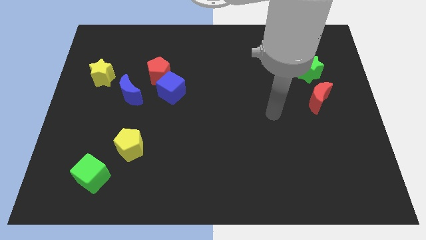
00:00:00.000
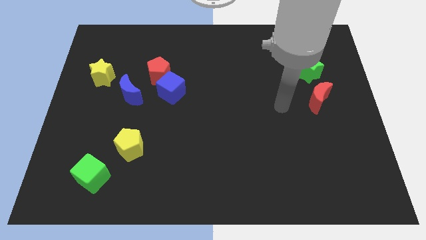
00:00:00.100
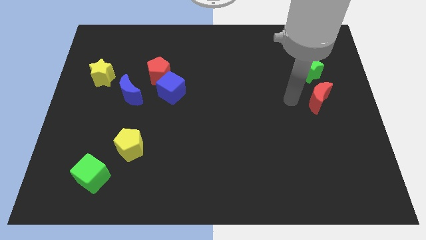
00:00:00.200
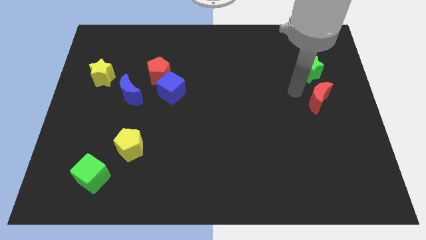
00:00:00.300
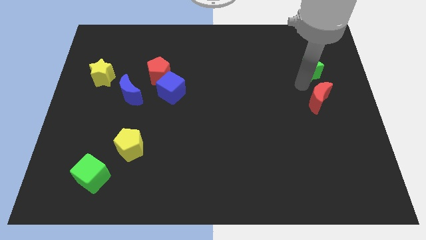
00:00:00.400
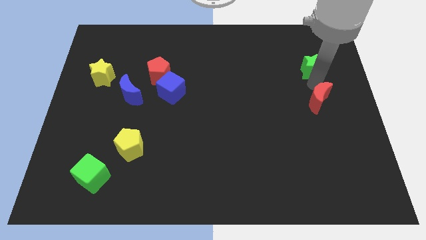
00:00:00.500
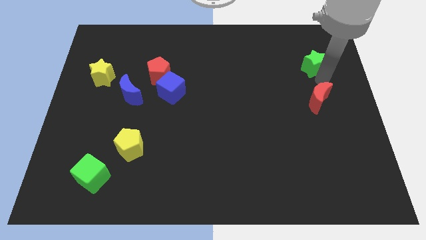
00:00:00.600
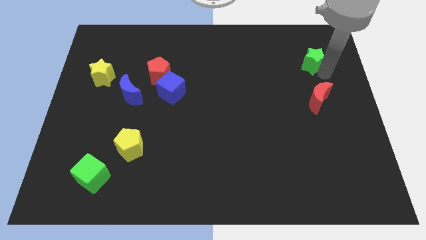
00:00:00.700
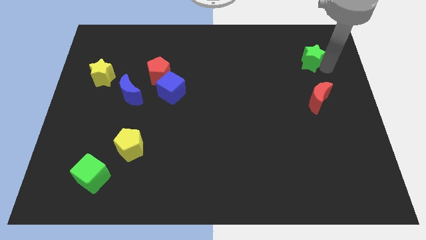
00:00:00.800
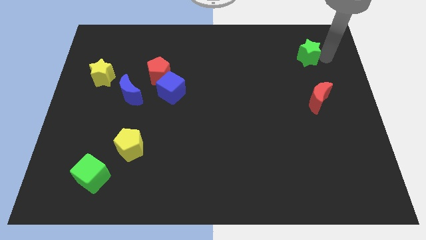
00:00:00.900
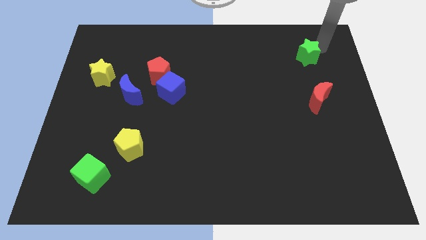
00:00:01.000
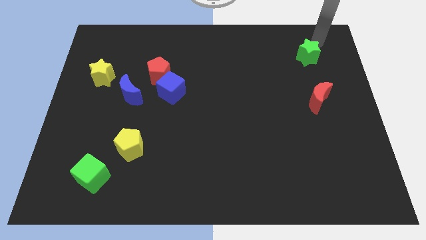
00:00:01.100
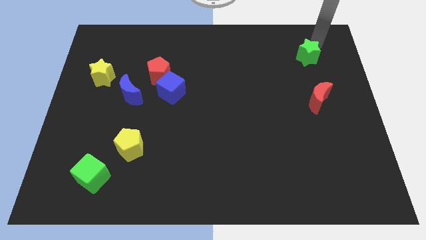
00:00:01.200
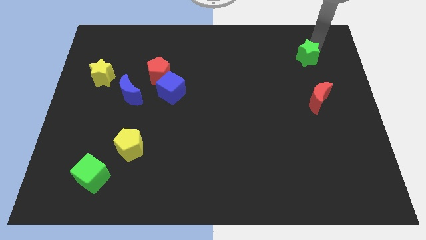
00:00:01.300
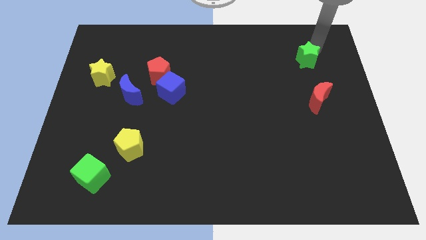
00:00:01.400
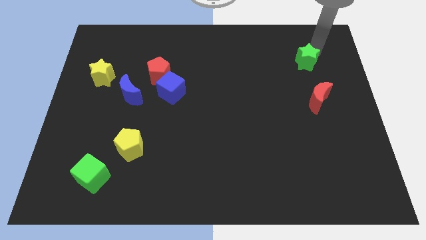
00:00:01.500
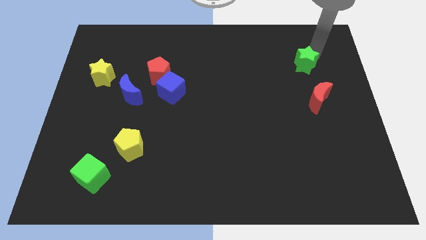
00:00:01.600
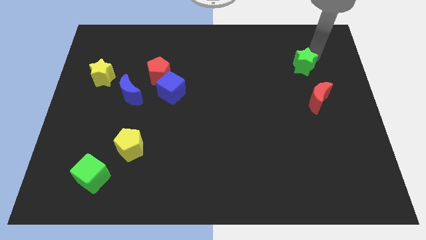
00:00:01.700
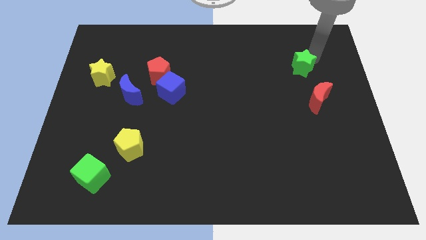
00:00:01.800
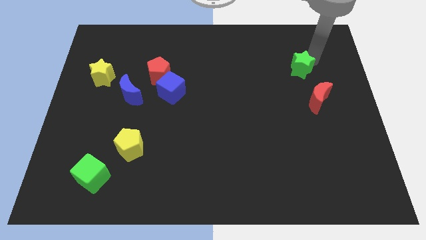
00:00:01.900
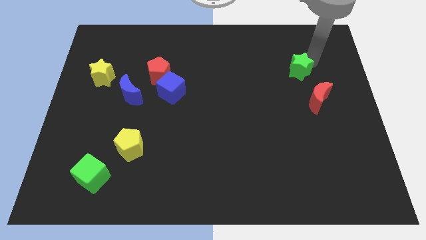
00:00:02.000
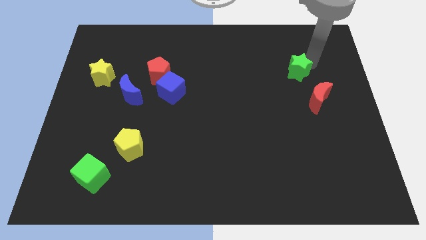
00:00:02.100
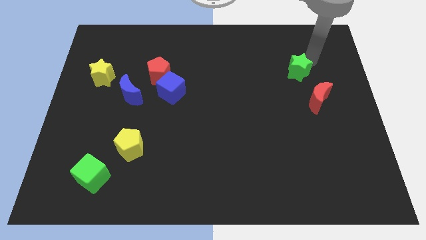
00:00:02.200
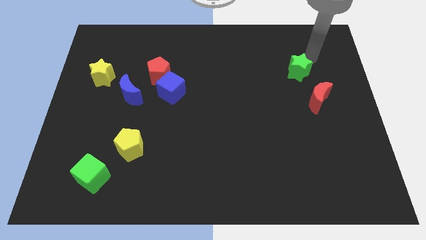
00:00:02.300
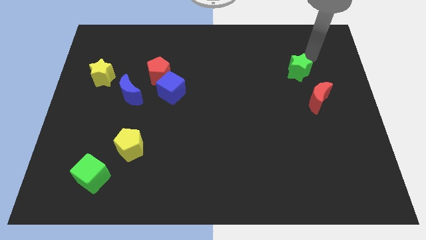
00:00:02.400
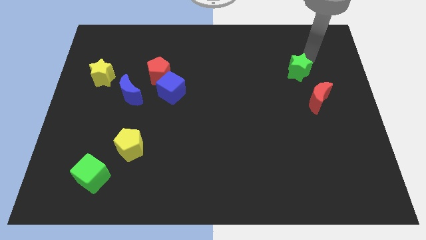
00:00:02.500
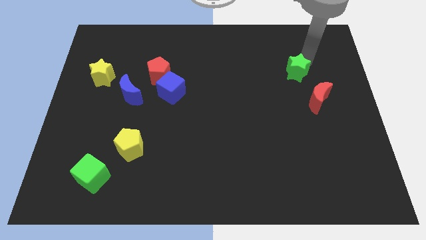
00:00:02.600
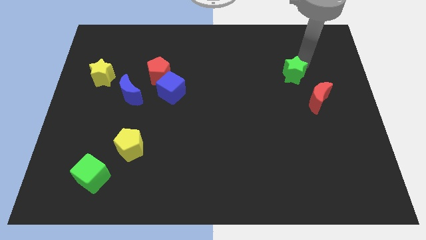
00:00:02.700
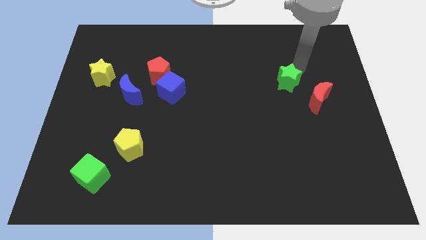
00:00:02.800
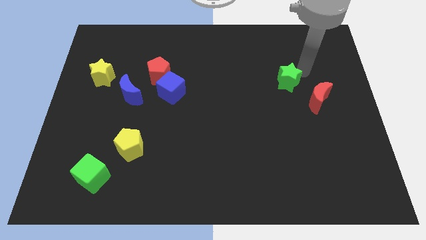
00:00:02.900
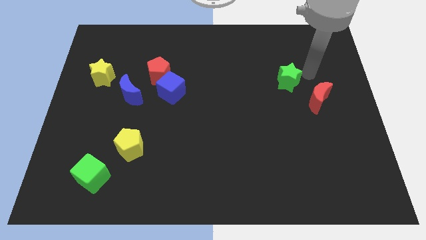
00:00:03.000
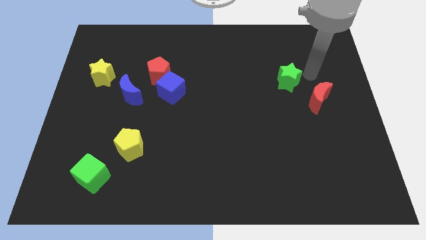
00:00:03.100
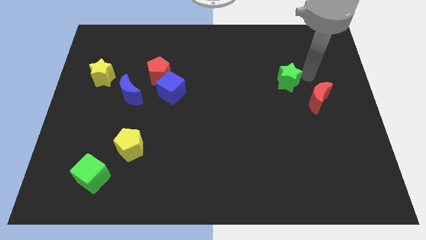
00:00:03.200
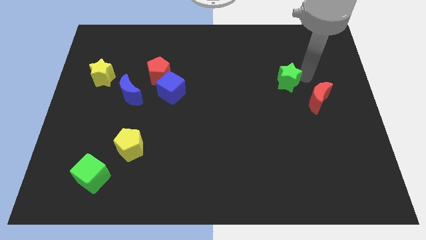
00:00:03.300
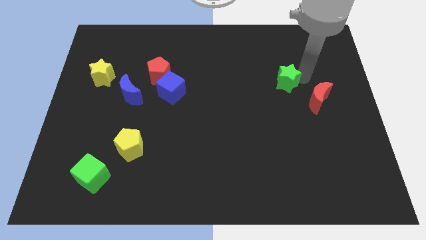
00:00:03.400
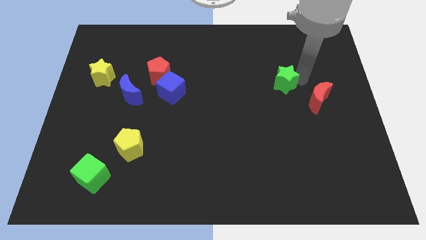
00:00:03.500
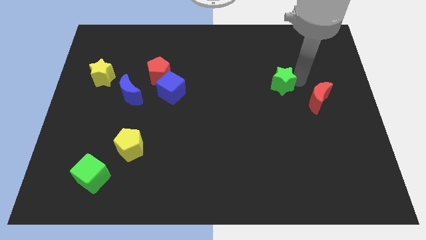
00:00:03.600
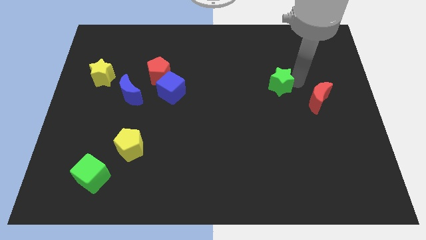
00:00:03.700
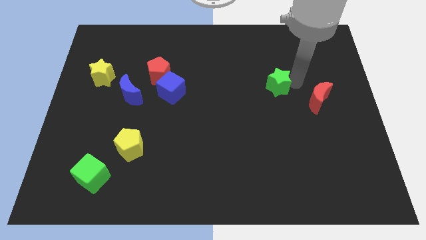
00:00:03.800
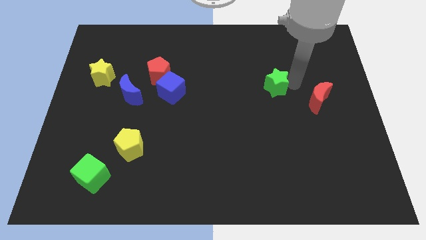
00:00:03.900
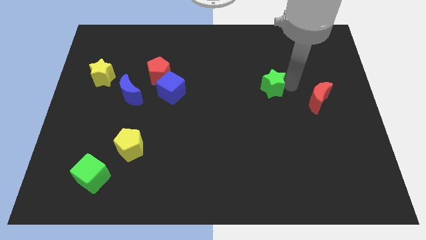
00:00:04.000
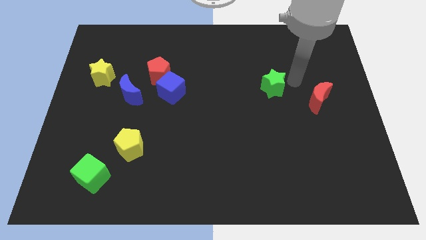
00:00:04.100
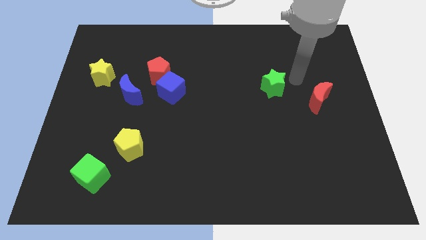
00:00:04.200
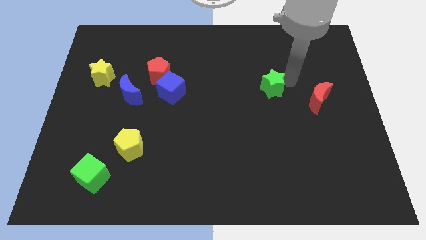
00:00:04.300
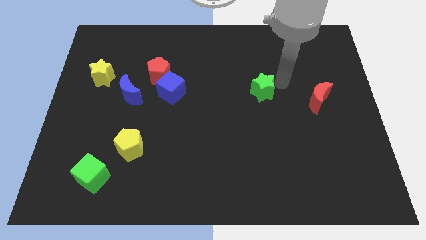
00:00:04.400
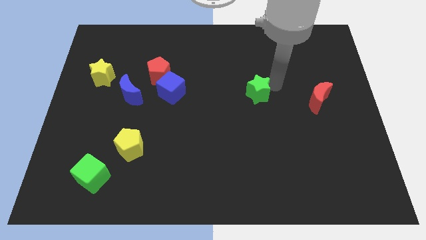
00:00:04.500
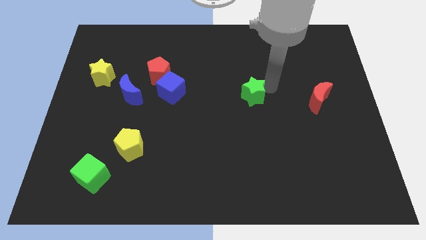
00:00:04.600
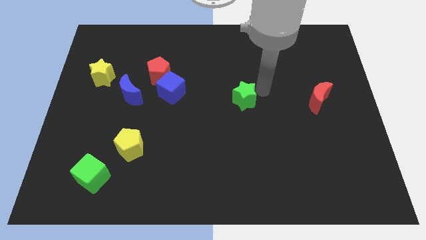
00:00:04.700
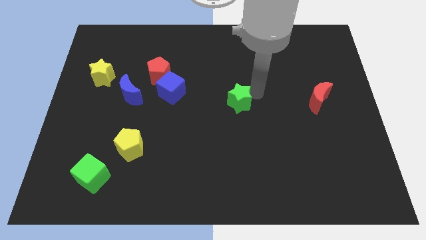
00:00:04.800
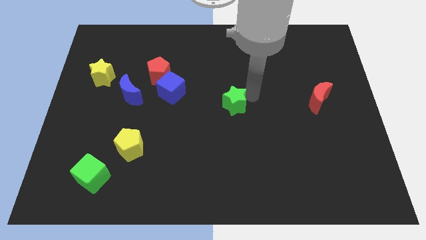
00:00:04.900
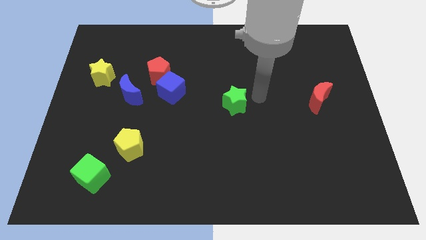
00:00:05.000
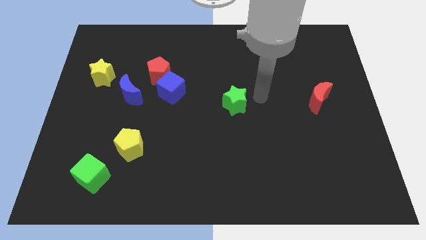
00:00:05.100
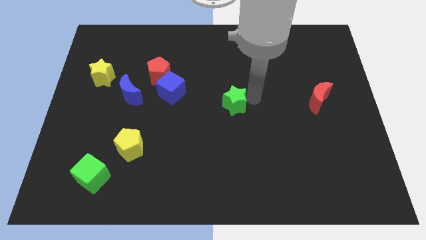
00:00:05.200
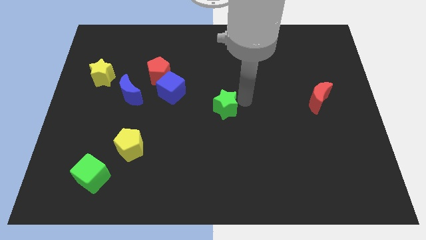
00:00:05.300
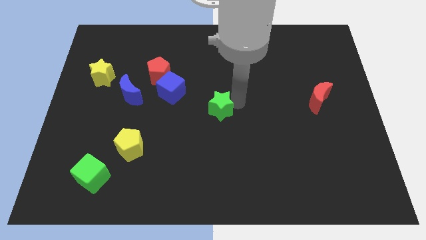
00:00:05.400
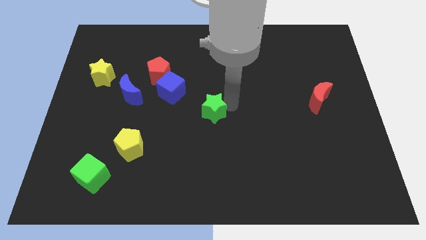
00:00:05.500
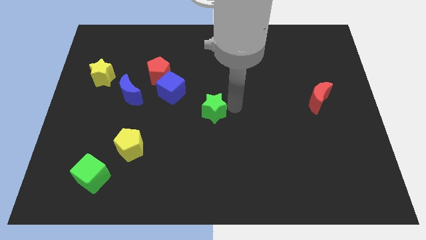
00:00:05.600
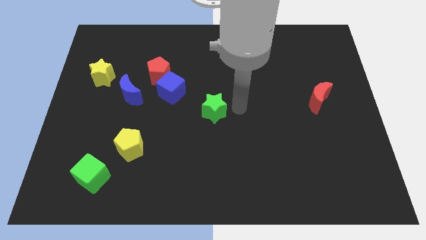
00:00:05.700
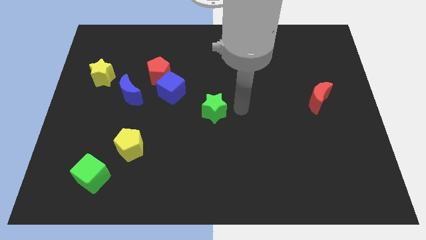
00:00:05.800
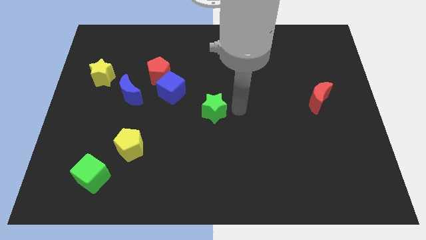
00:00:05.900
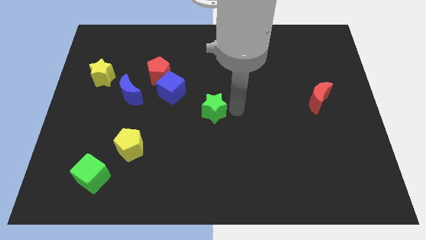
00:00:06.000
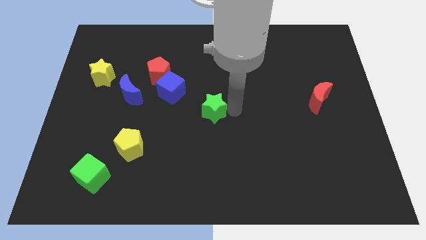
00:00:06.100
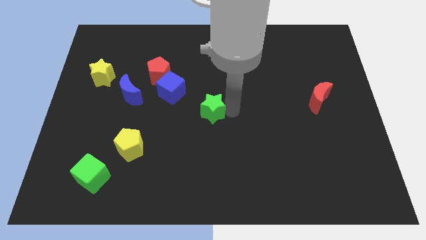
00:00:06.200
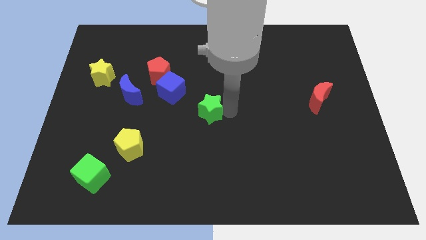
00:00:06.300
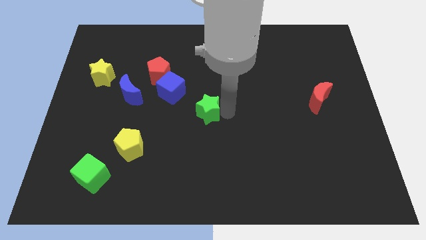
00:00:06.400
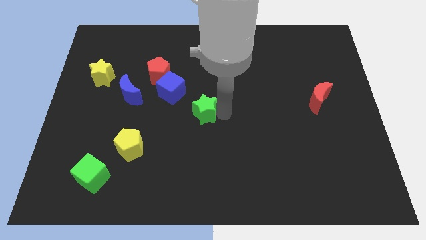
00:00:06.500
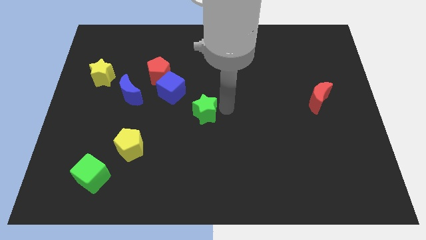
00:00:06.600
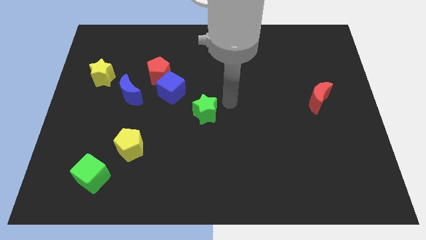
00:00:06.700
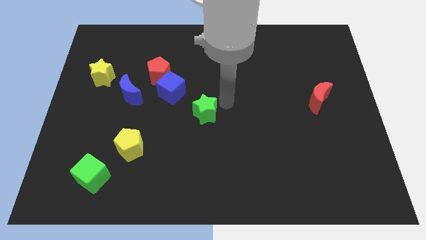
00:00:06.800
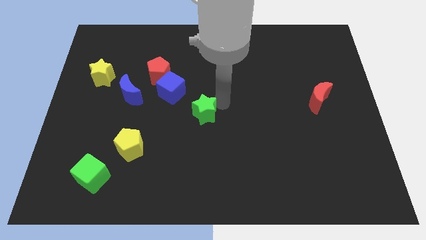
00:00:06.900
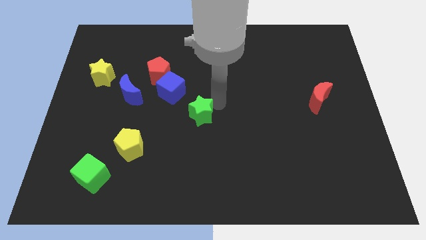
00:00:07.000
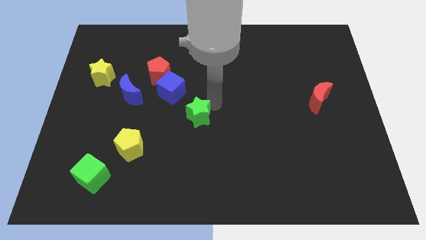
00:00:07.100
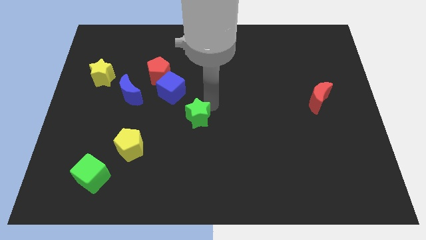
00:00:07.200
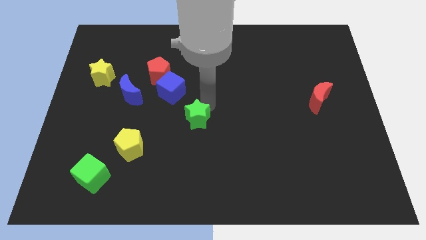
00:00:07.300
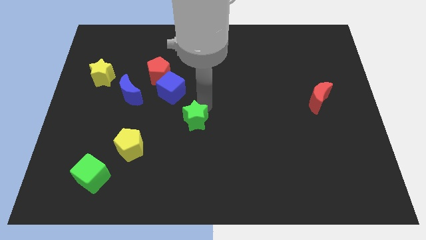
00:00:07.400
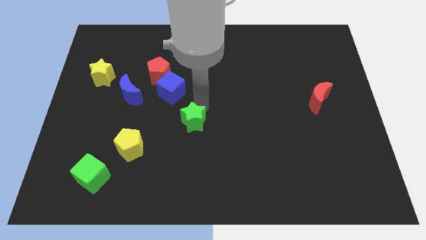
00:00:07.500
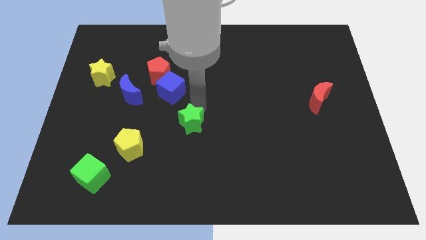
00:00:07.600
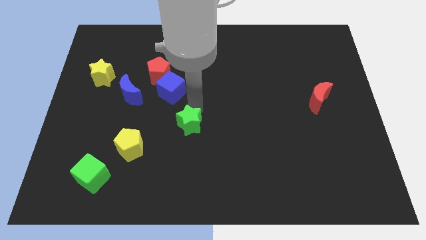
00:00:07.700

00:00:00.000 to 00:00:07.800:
put the green star to the bottom side of the blue cube

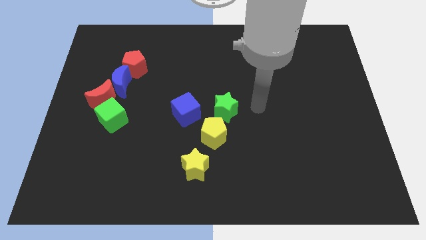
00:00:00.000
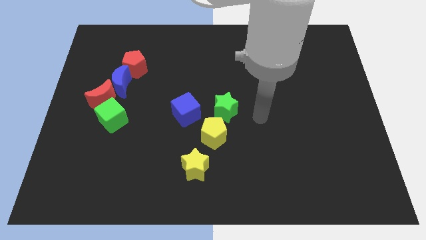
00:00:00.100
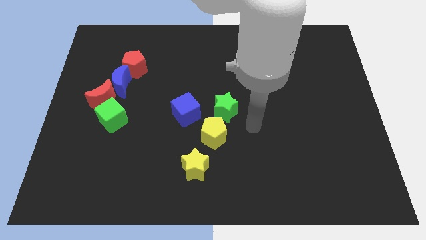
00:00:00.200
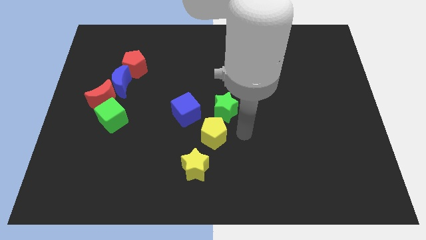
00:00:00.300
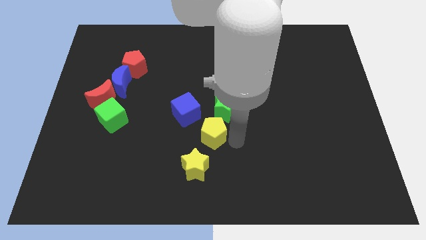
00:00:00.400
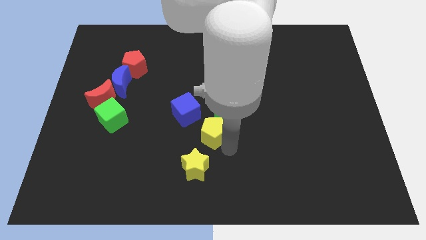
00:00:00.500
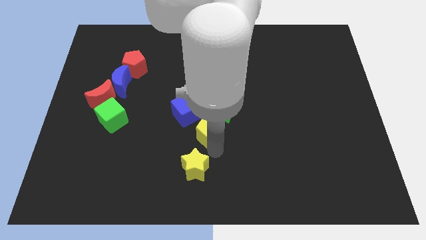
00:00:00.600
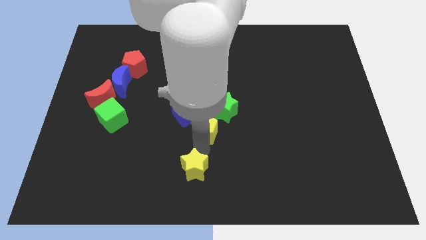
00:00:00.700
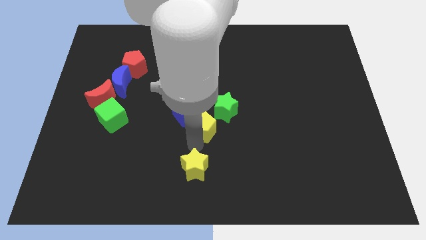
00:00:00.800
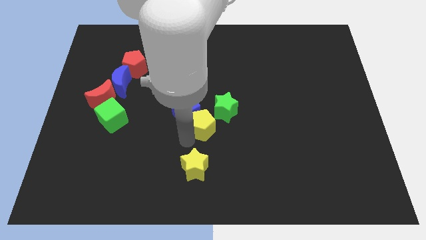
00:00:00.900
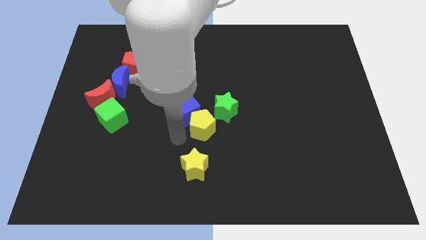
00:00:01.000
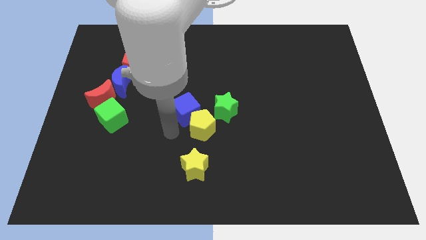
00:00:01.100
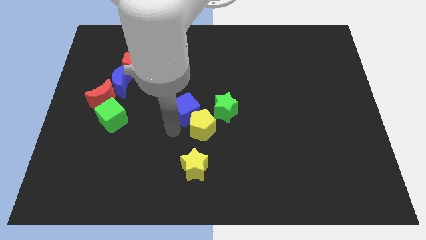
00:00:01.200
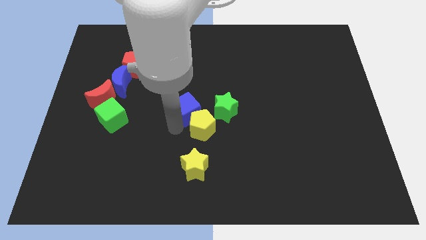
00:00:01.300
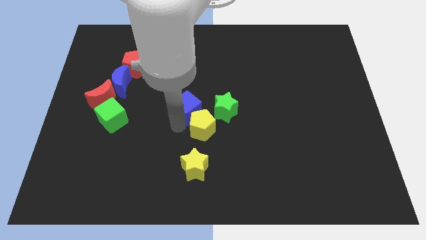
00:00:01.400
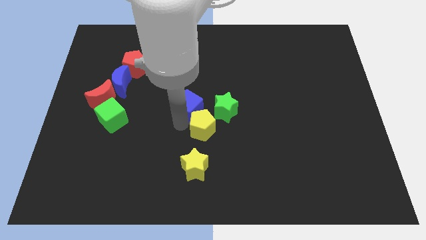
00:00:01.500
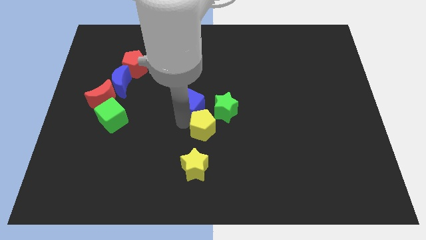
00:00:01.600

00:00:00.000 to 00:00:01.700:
push the blue cube to the top left of the green star
